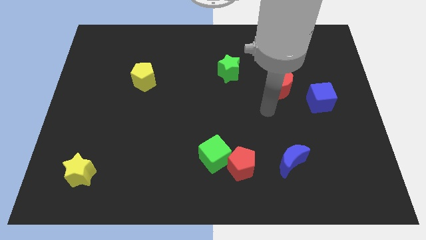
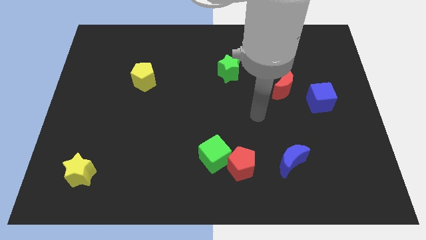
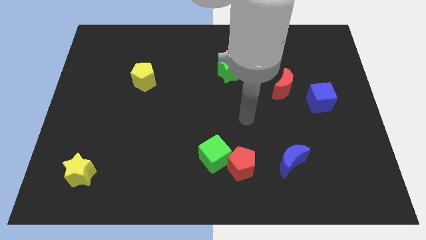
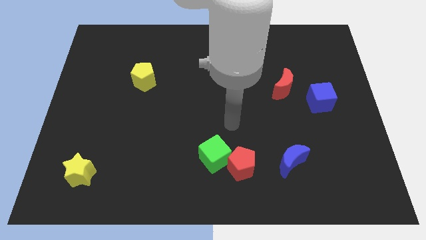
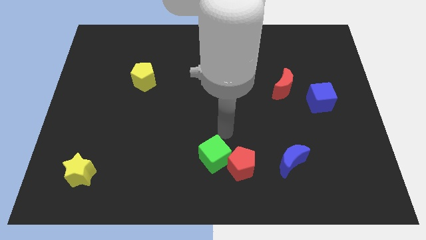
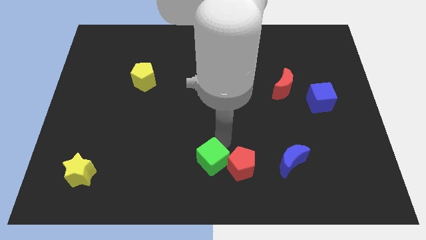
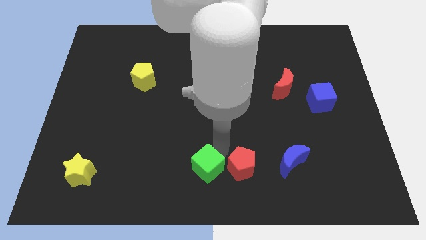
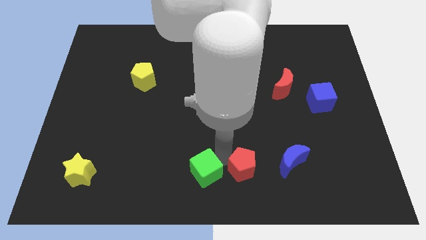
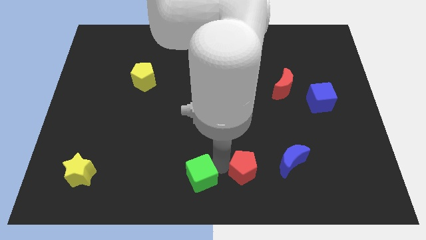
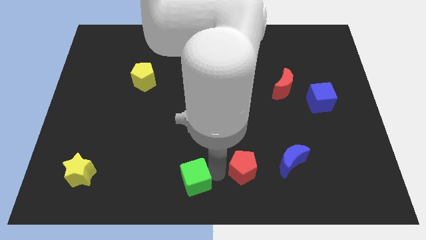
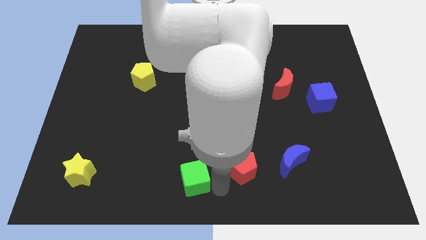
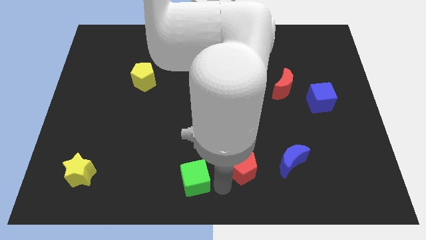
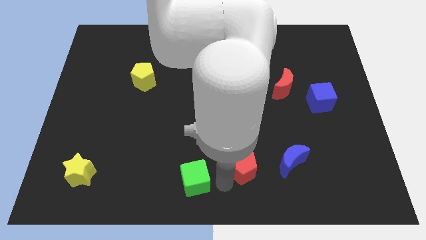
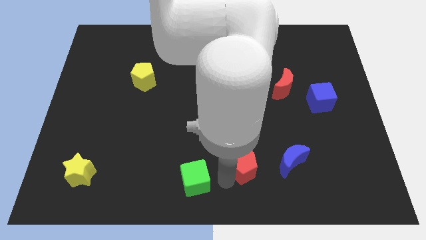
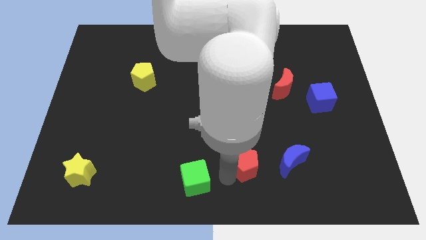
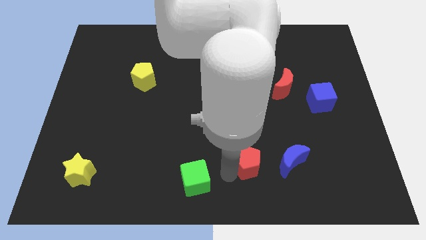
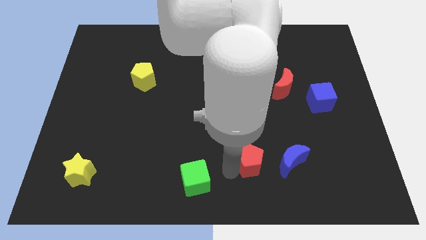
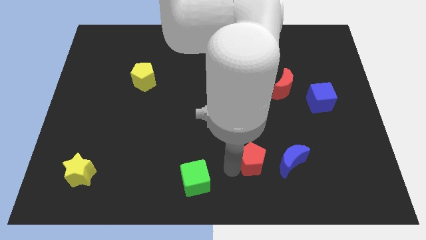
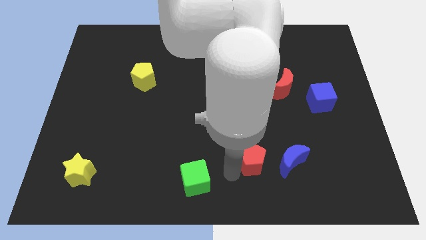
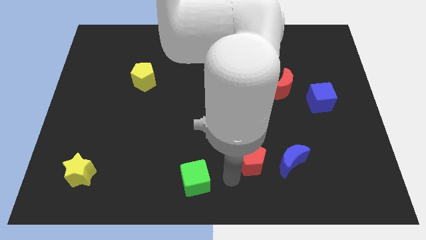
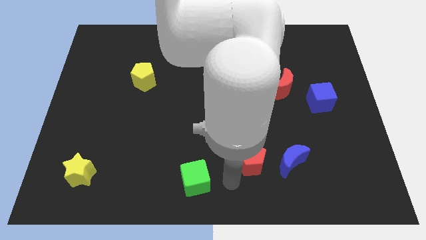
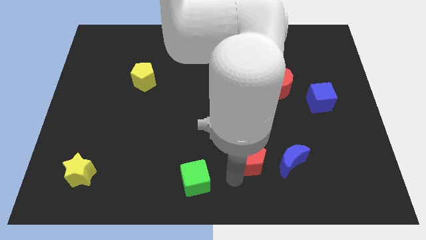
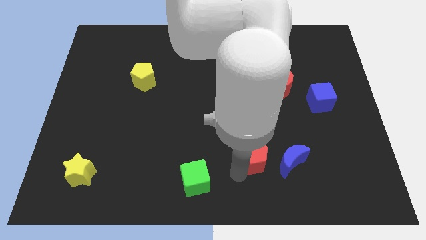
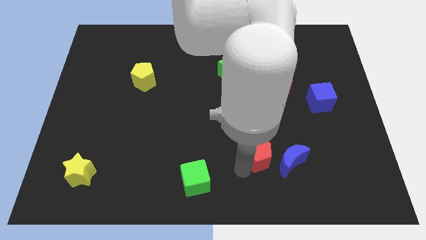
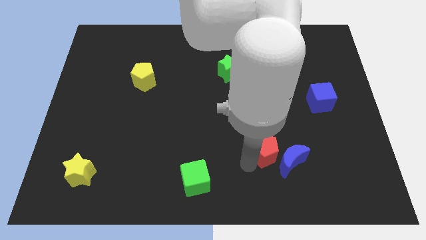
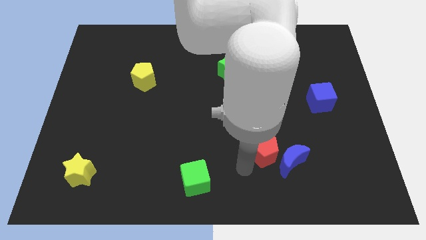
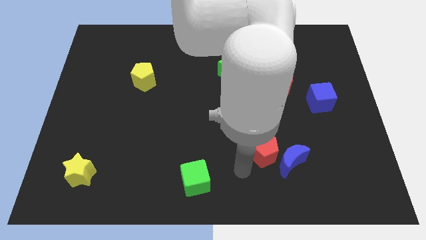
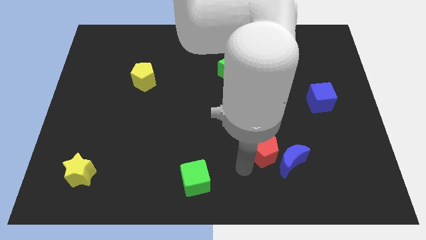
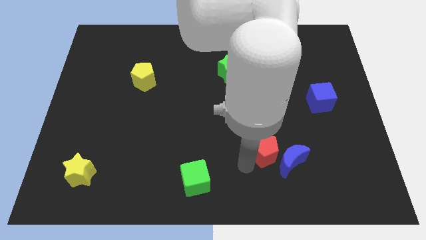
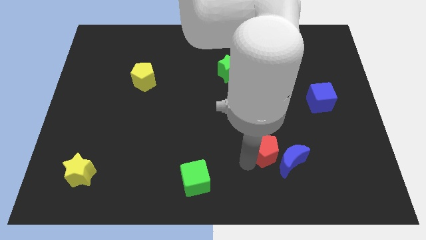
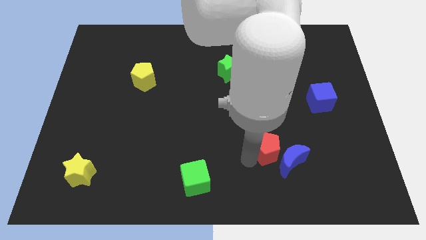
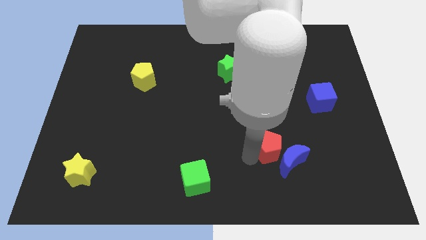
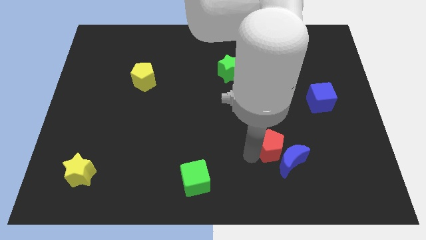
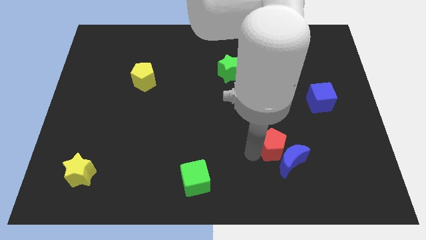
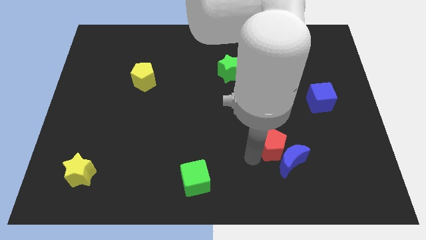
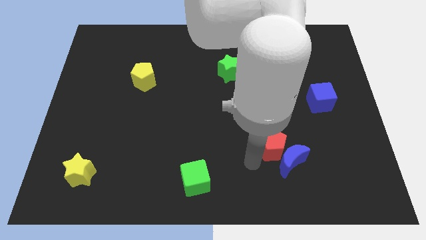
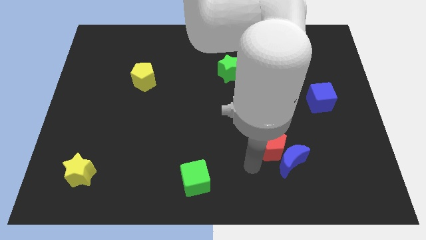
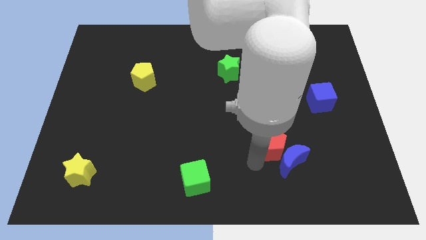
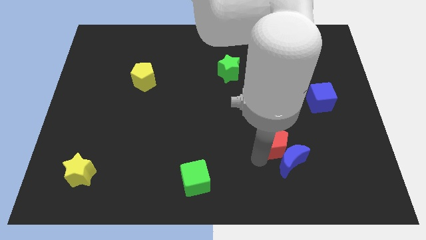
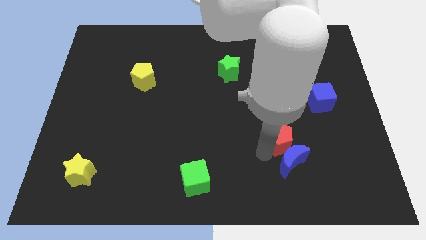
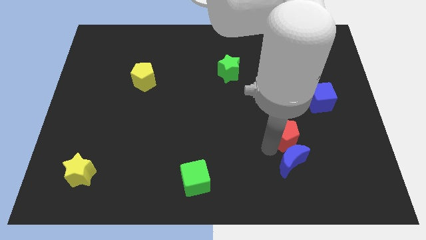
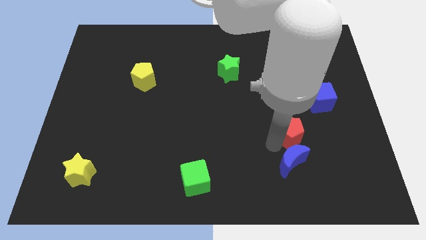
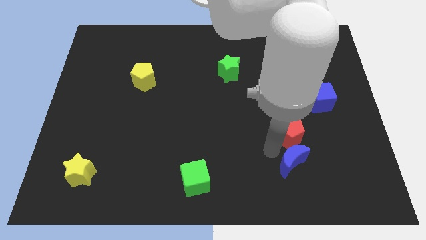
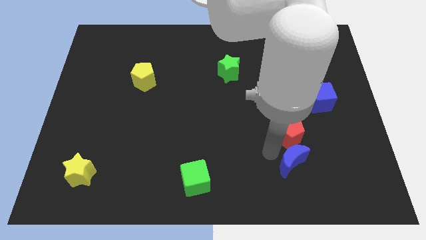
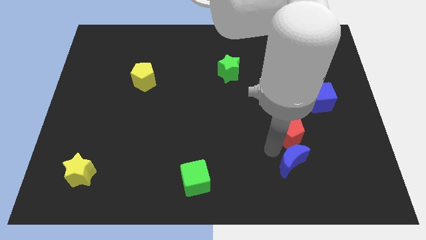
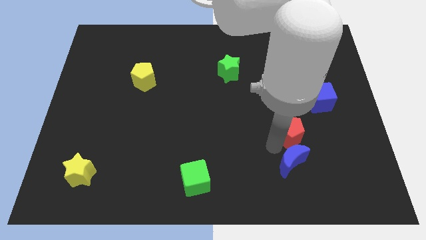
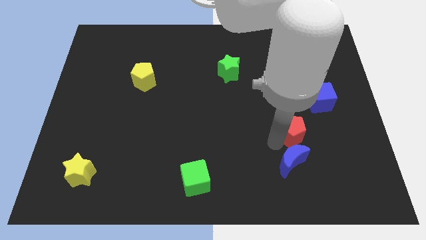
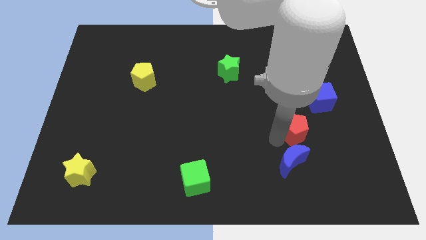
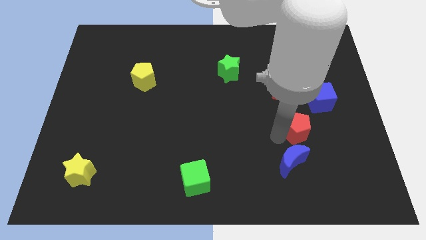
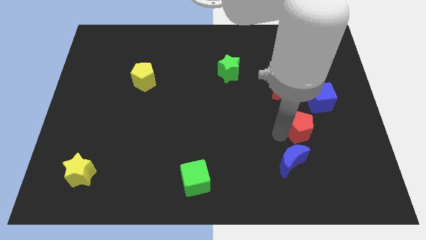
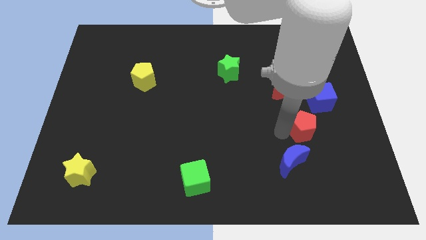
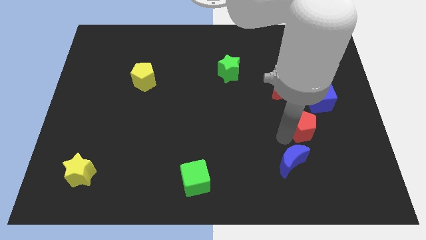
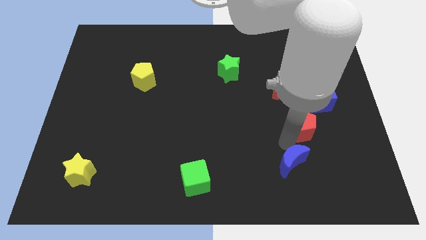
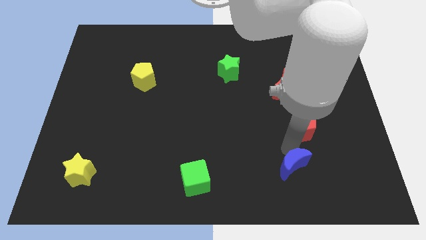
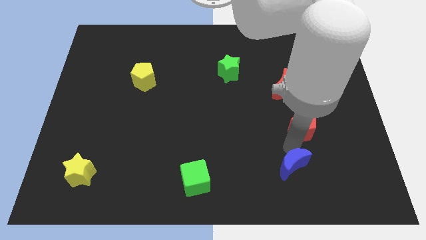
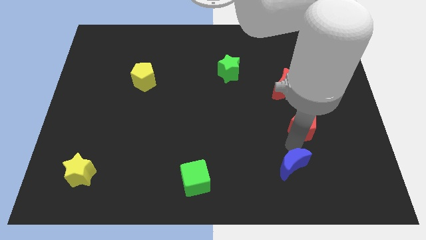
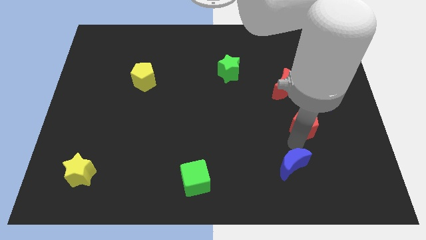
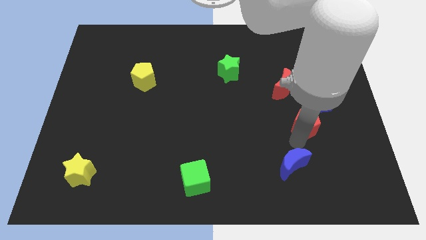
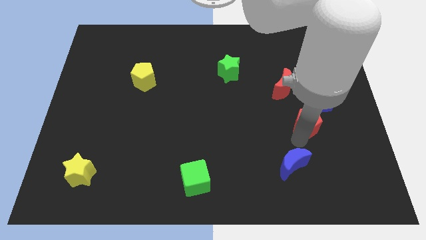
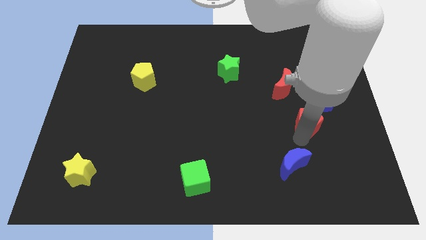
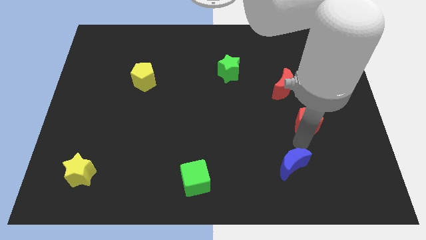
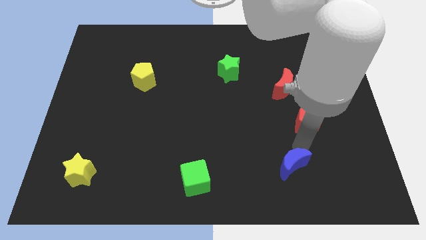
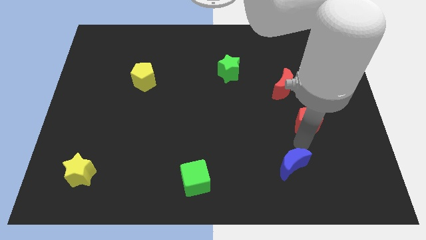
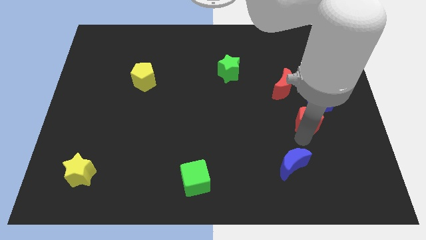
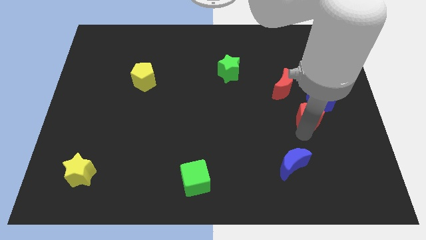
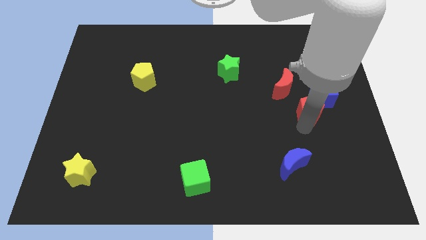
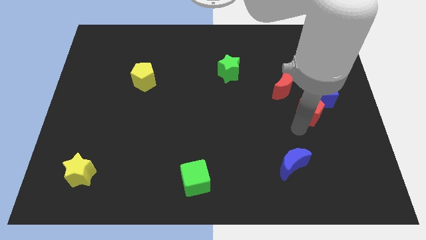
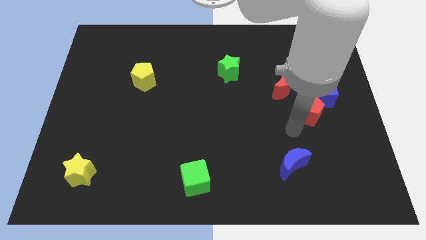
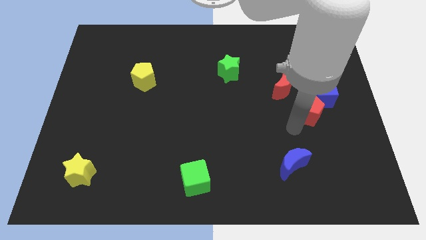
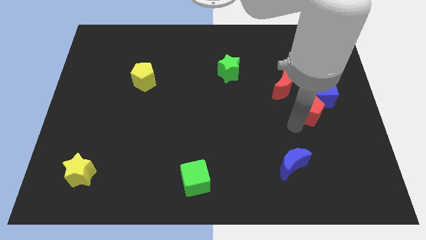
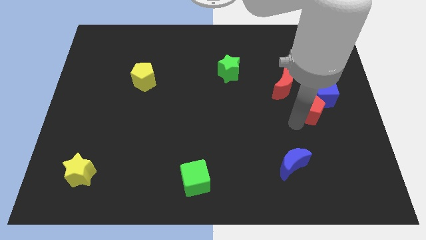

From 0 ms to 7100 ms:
push the red pentagon next to the blue cube

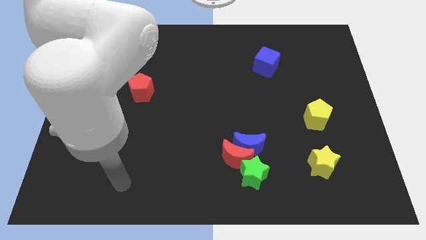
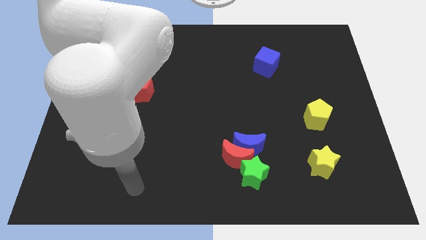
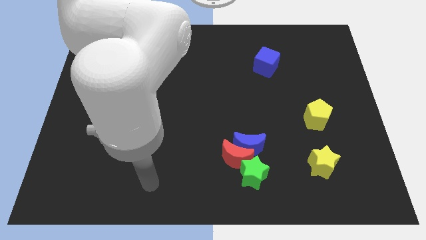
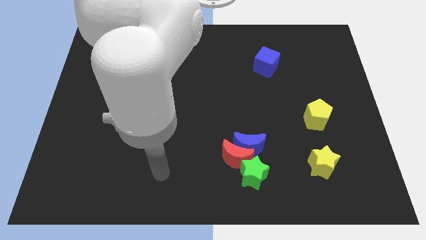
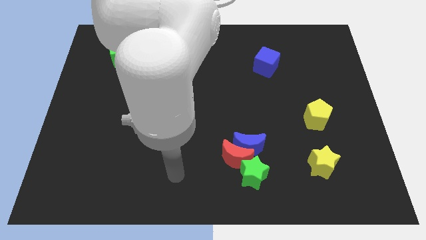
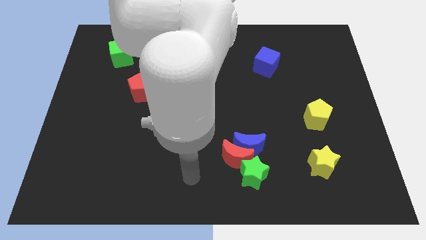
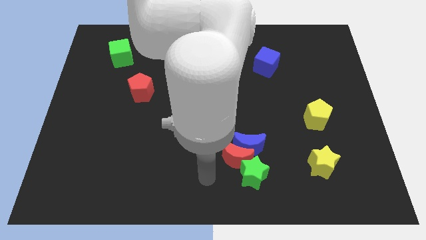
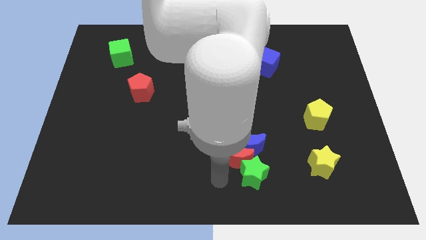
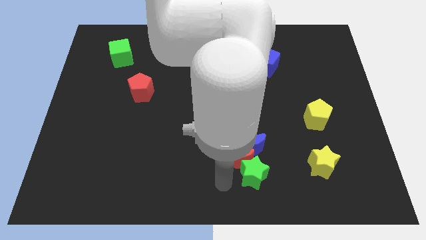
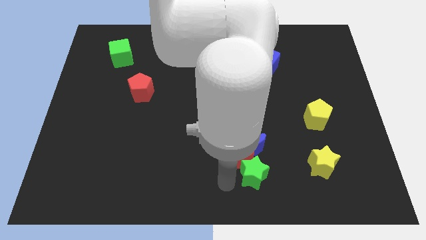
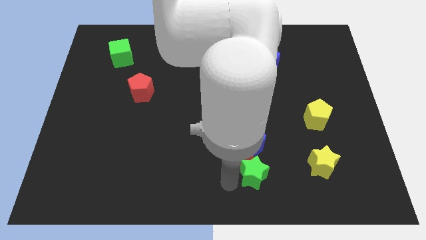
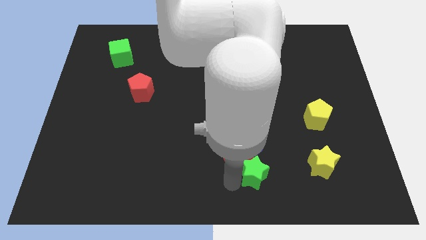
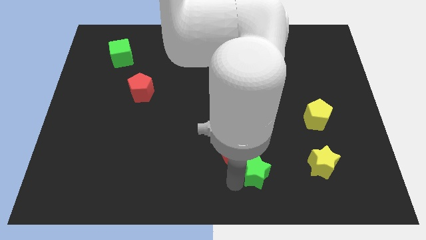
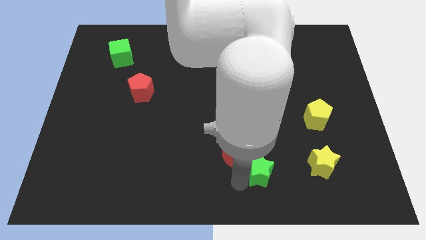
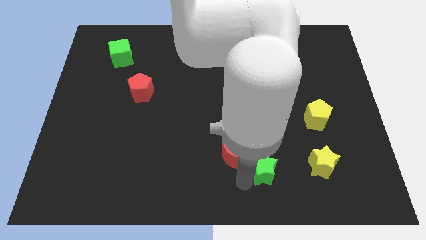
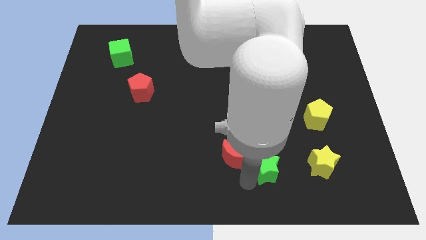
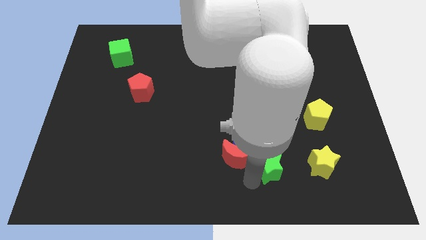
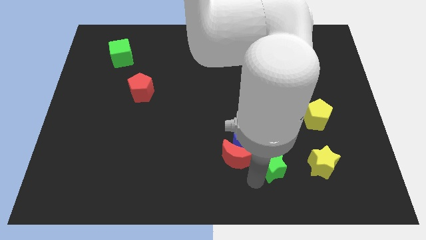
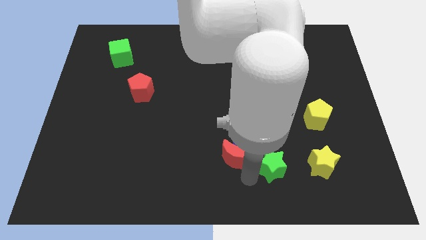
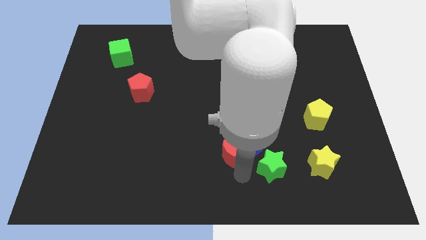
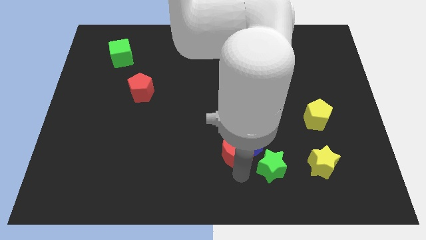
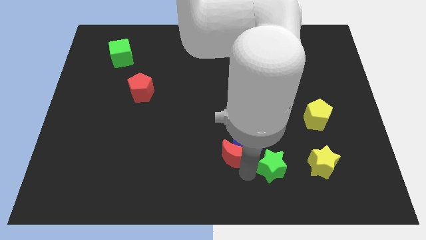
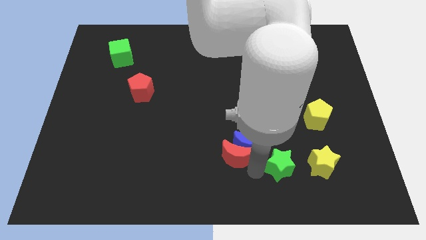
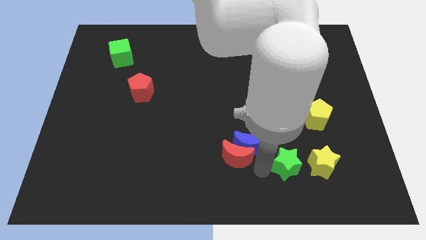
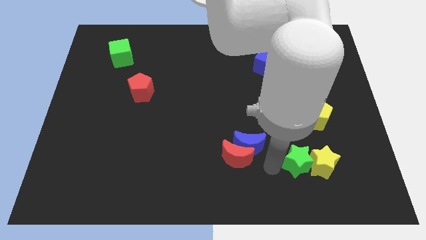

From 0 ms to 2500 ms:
put the green star towards the yellow star
